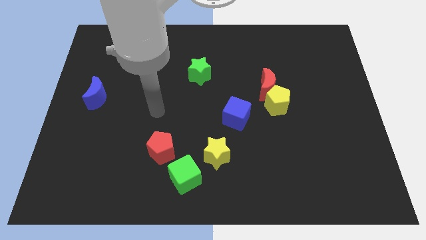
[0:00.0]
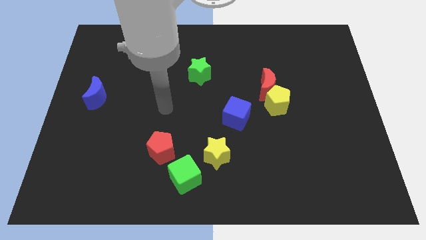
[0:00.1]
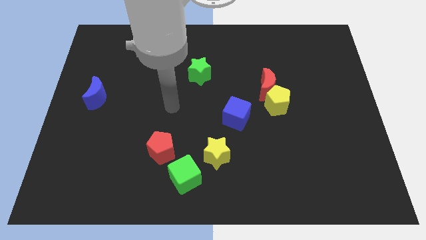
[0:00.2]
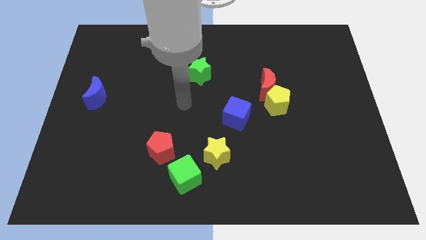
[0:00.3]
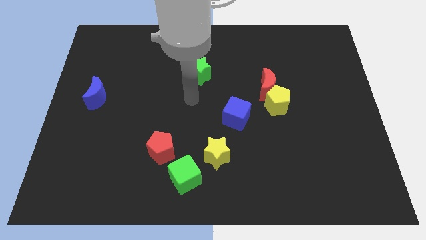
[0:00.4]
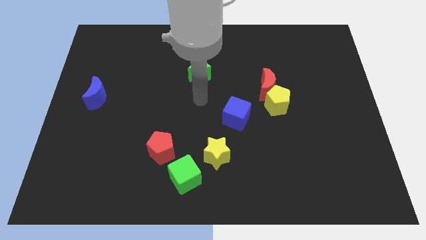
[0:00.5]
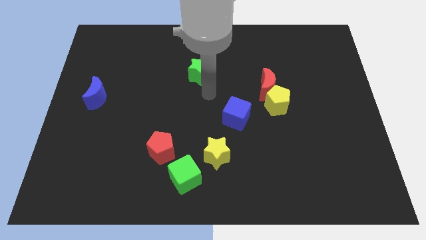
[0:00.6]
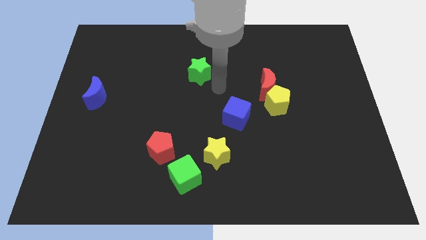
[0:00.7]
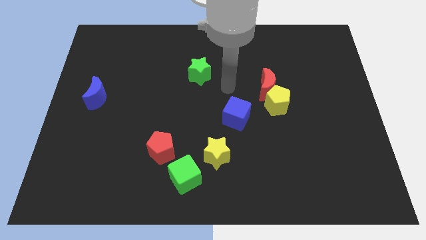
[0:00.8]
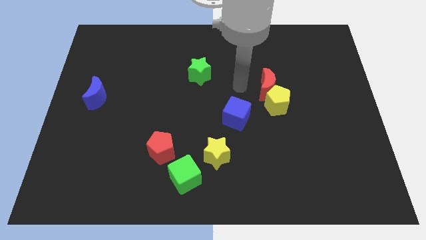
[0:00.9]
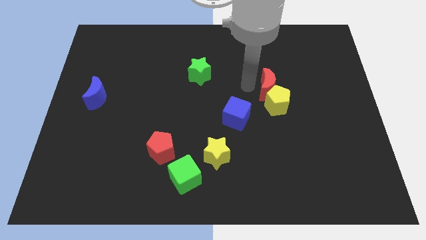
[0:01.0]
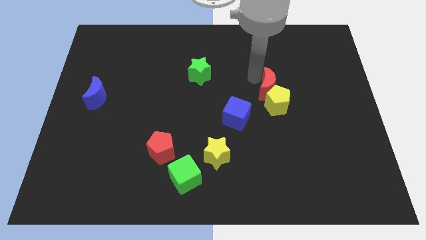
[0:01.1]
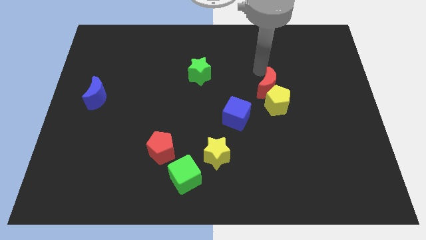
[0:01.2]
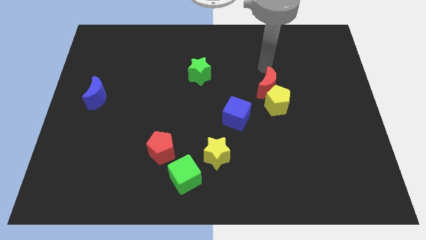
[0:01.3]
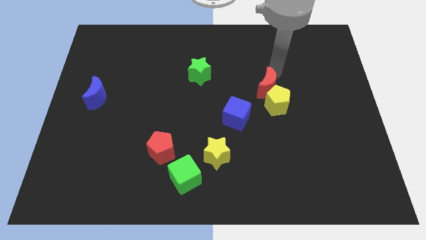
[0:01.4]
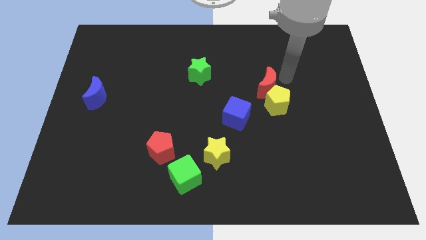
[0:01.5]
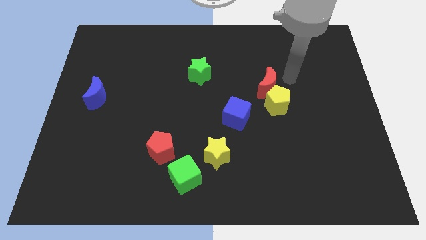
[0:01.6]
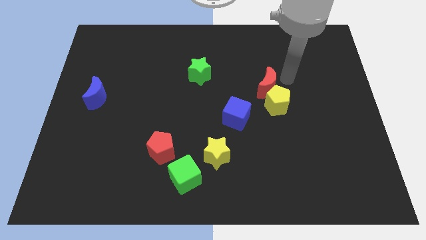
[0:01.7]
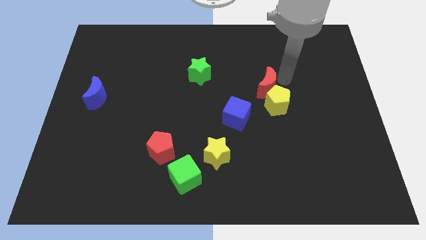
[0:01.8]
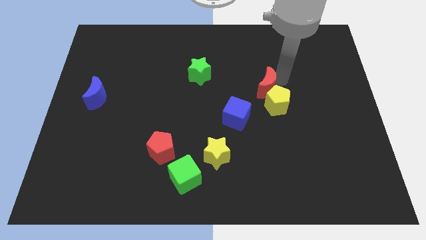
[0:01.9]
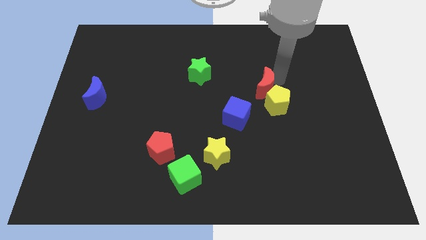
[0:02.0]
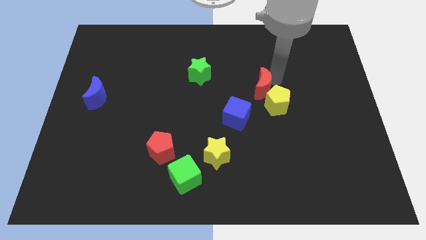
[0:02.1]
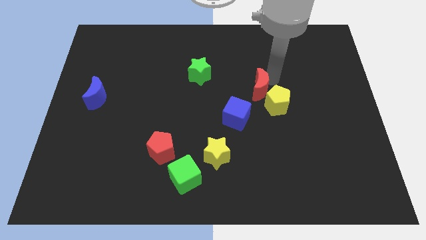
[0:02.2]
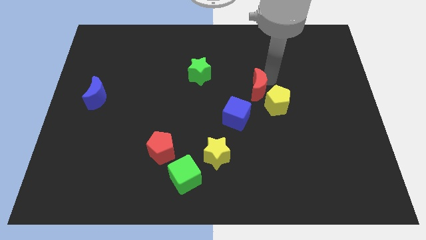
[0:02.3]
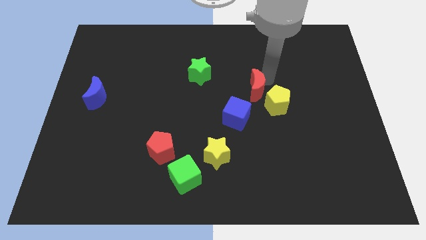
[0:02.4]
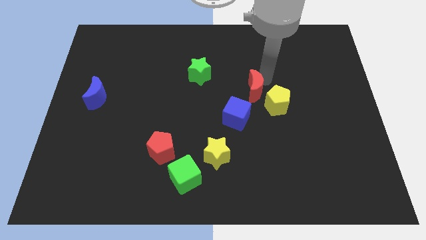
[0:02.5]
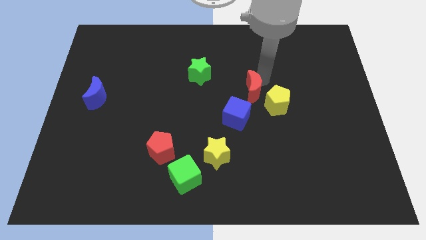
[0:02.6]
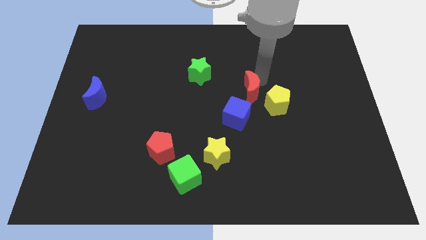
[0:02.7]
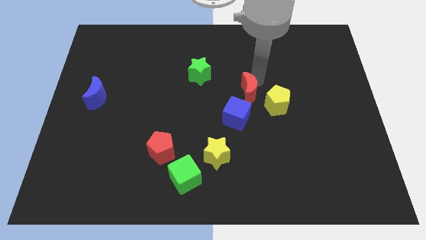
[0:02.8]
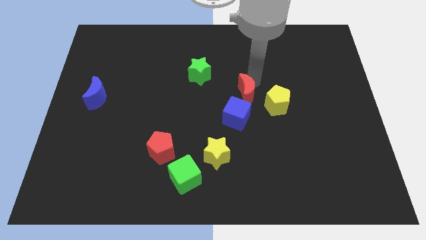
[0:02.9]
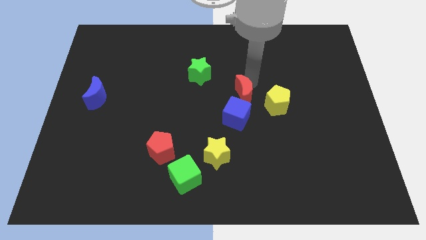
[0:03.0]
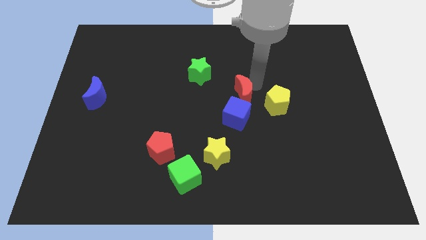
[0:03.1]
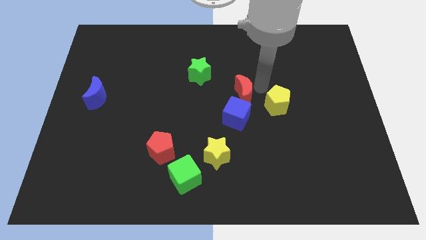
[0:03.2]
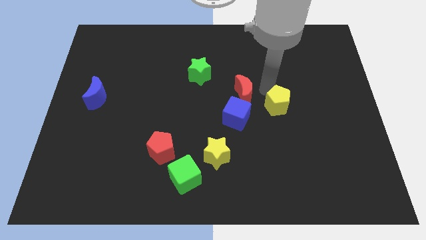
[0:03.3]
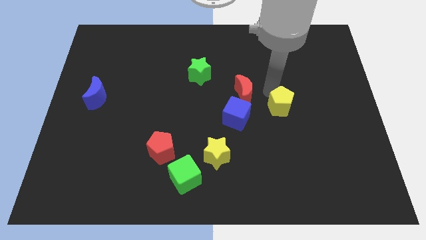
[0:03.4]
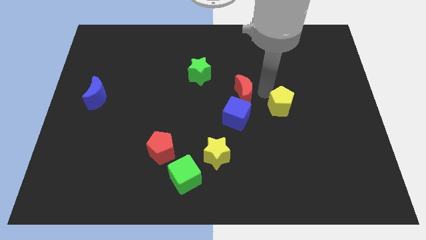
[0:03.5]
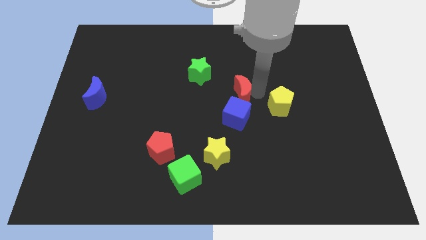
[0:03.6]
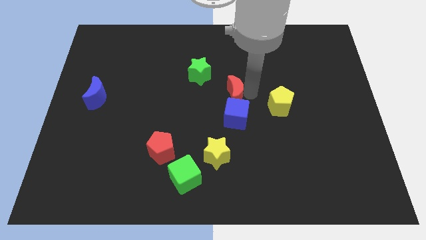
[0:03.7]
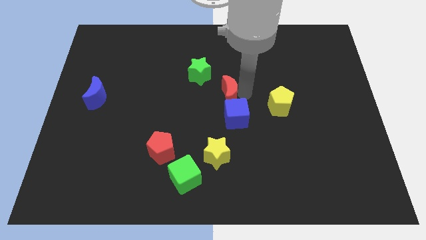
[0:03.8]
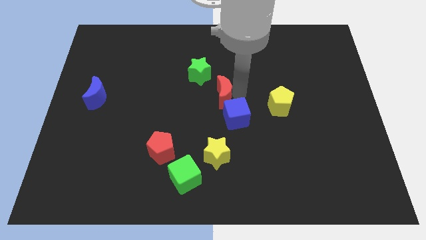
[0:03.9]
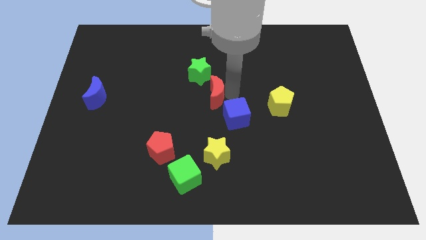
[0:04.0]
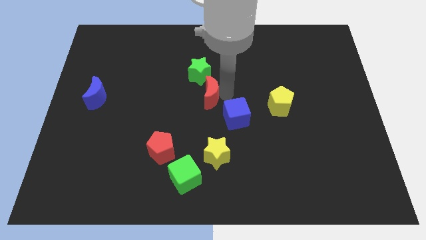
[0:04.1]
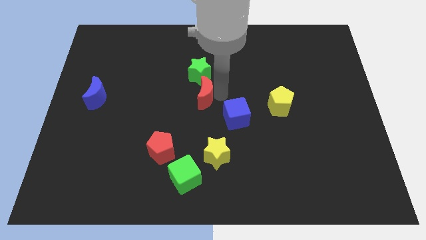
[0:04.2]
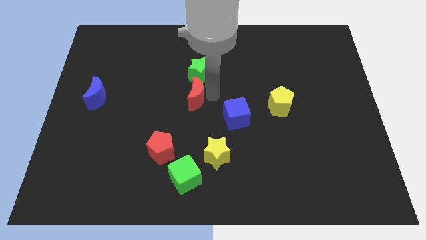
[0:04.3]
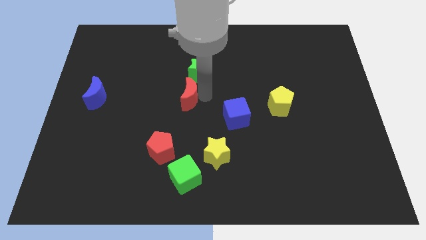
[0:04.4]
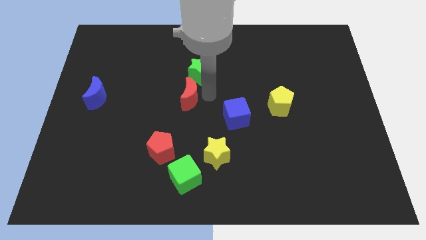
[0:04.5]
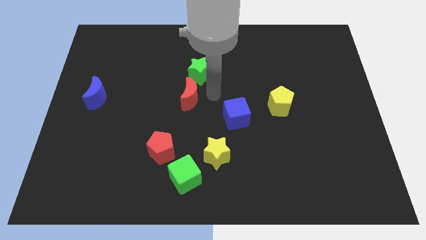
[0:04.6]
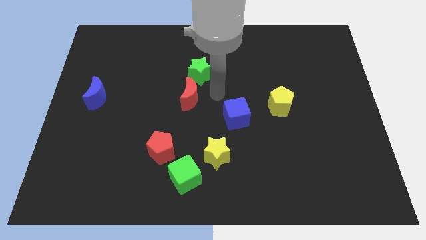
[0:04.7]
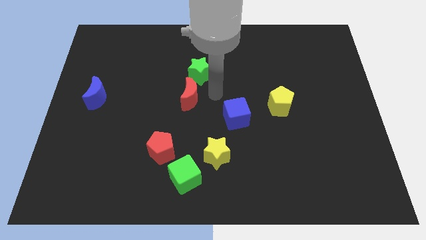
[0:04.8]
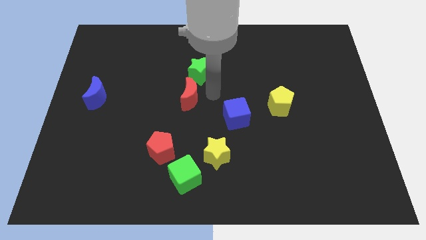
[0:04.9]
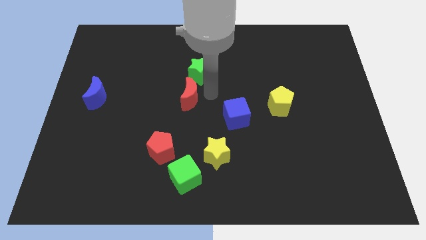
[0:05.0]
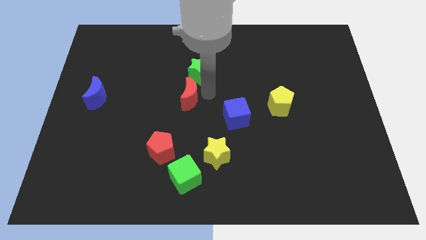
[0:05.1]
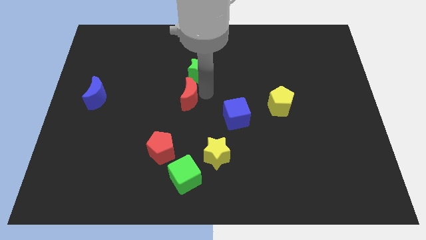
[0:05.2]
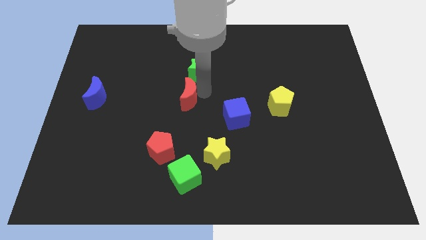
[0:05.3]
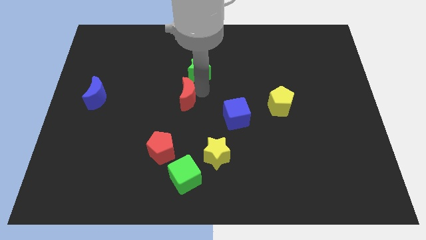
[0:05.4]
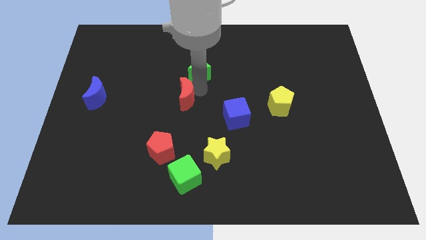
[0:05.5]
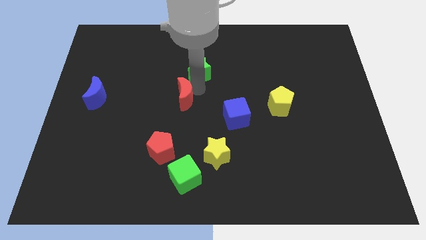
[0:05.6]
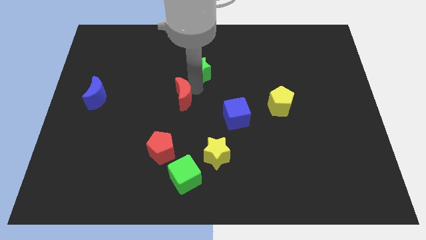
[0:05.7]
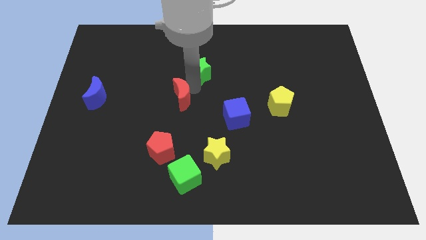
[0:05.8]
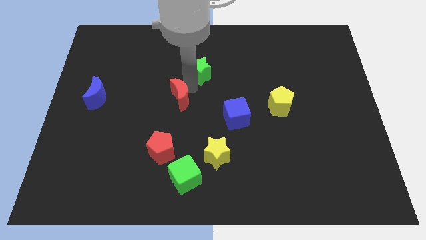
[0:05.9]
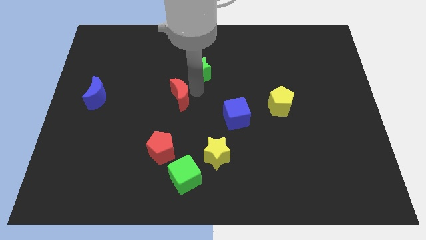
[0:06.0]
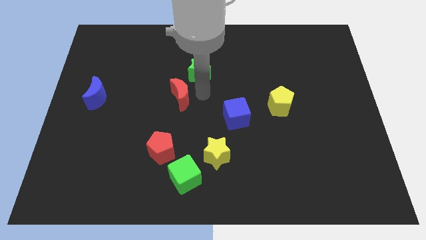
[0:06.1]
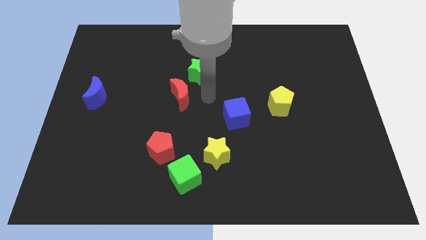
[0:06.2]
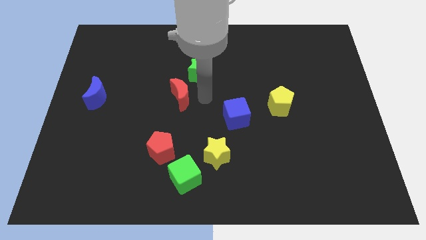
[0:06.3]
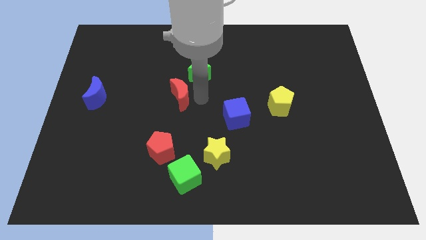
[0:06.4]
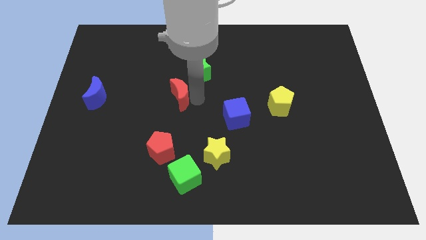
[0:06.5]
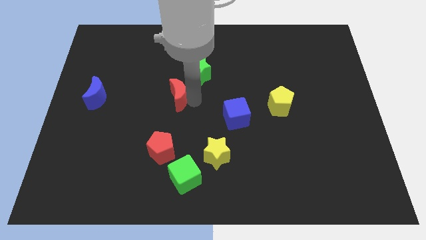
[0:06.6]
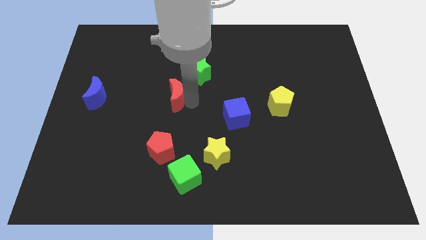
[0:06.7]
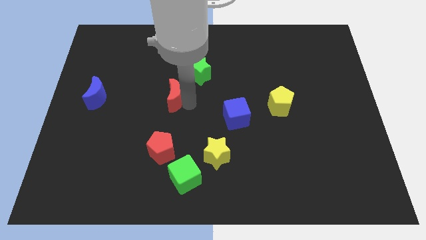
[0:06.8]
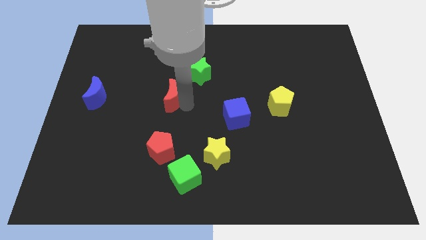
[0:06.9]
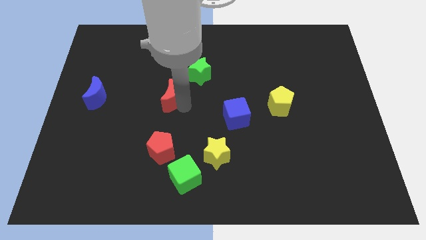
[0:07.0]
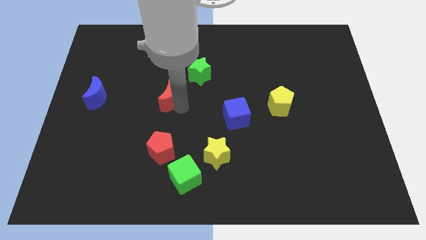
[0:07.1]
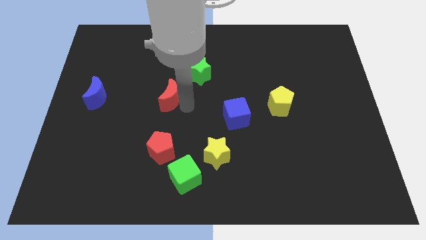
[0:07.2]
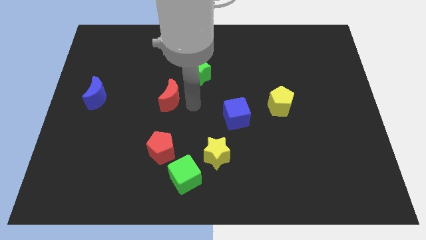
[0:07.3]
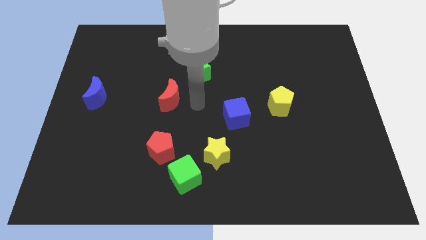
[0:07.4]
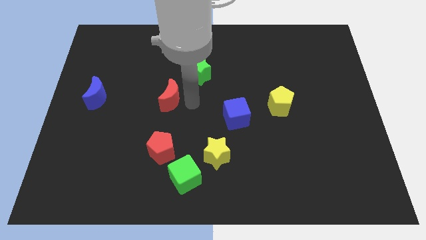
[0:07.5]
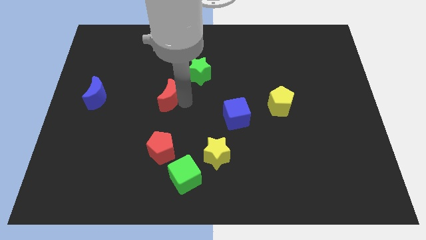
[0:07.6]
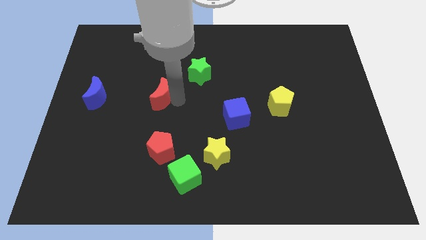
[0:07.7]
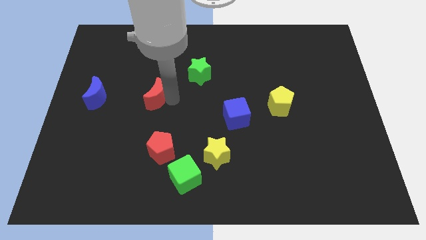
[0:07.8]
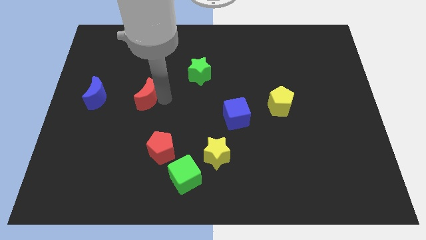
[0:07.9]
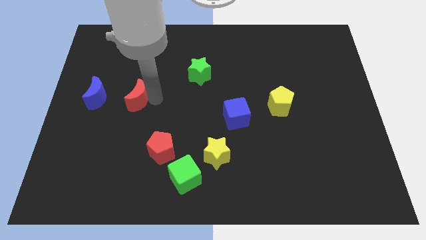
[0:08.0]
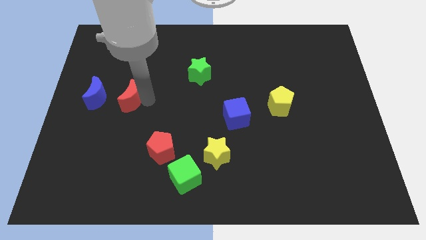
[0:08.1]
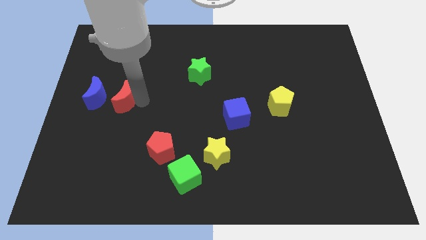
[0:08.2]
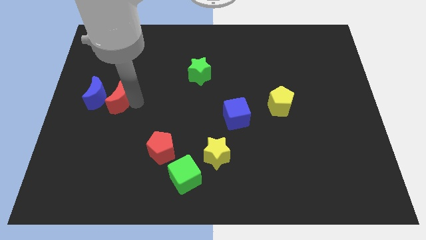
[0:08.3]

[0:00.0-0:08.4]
slide the red moon close to the blue moon

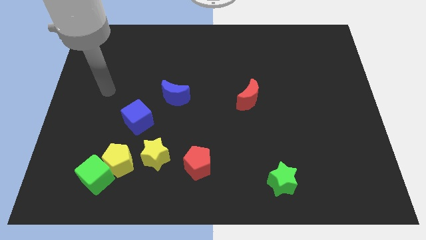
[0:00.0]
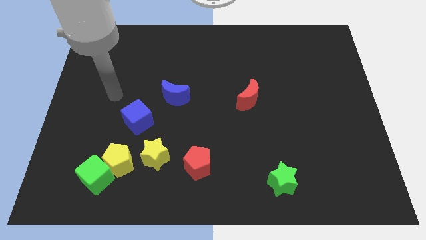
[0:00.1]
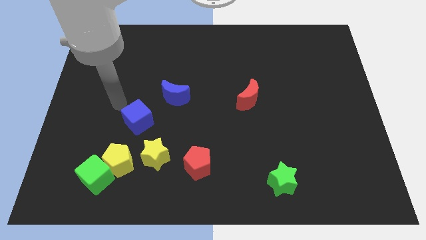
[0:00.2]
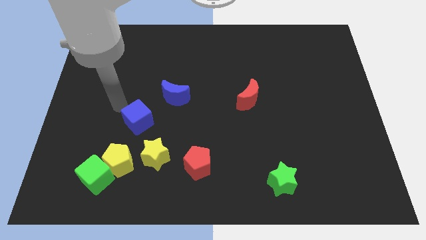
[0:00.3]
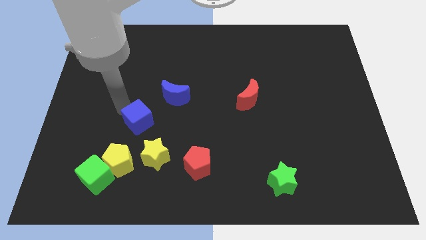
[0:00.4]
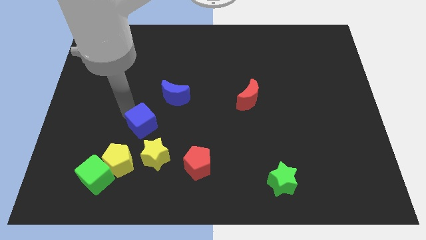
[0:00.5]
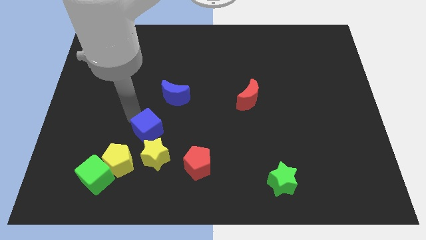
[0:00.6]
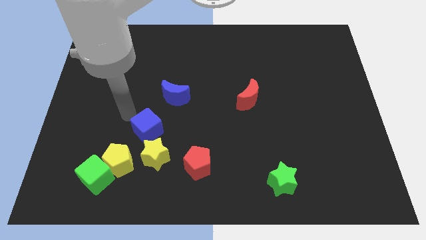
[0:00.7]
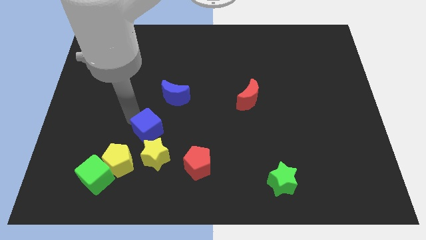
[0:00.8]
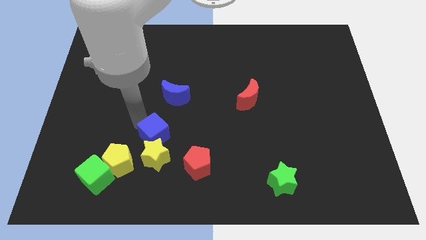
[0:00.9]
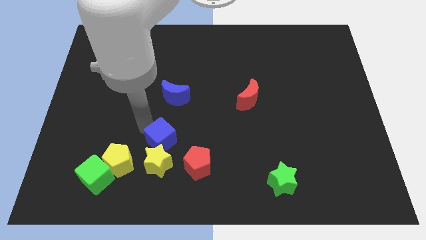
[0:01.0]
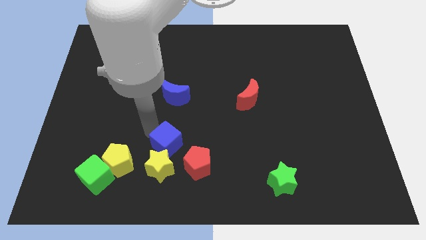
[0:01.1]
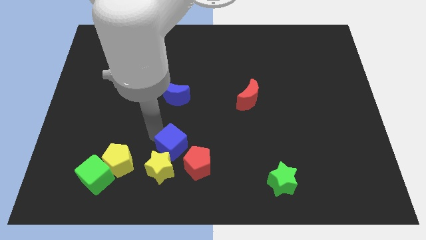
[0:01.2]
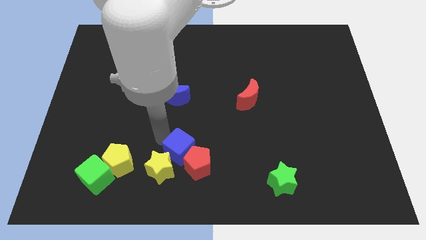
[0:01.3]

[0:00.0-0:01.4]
push the blue cube next to the red pentagon
